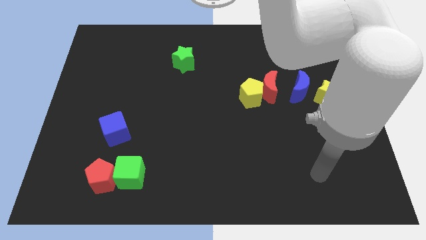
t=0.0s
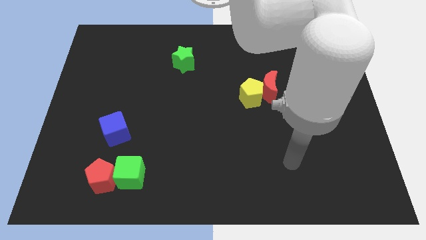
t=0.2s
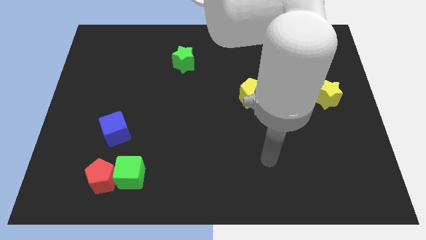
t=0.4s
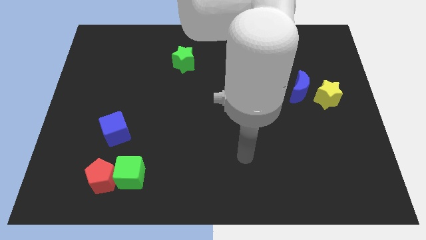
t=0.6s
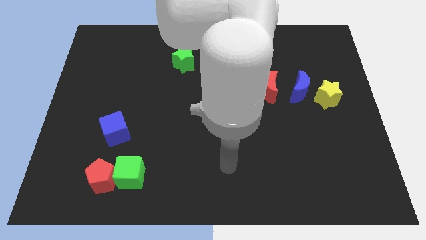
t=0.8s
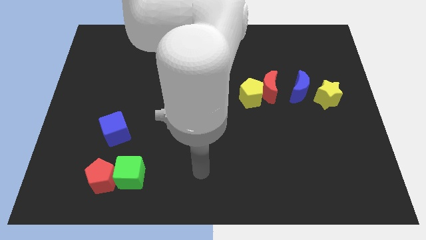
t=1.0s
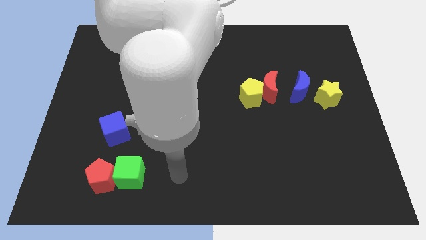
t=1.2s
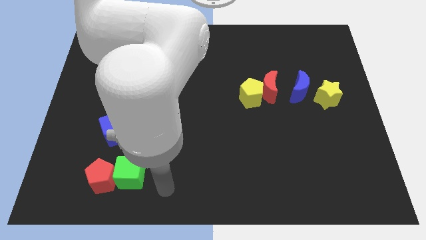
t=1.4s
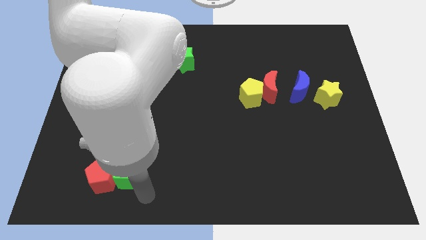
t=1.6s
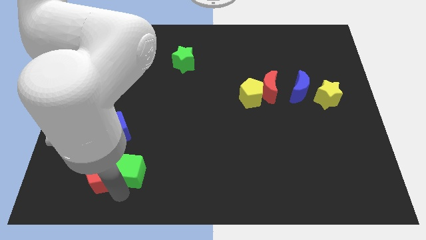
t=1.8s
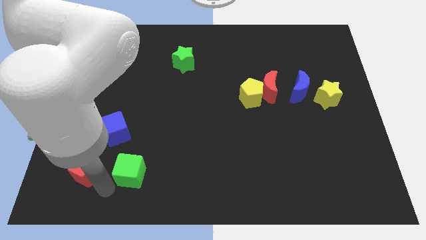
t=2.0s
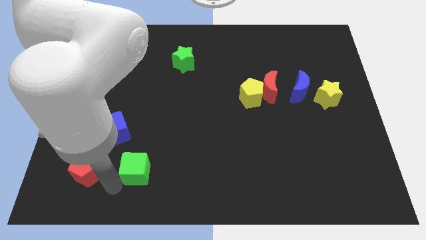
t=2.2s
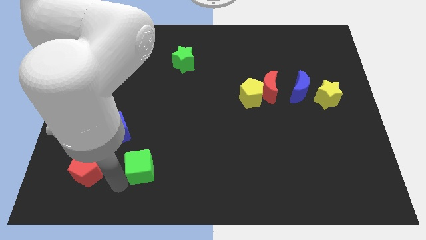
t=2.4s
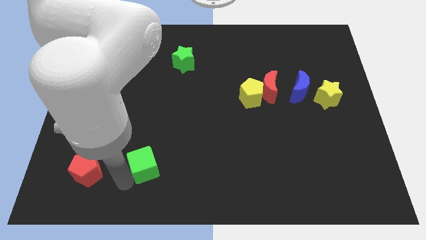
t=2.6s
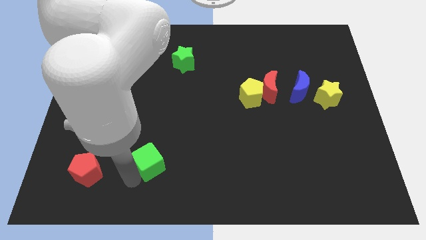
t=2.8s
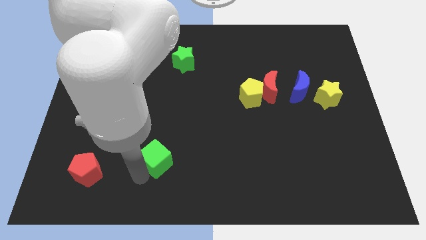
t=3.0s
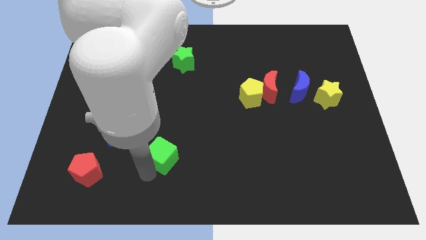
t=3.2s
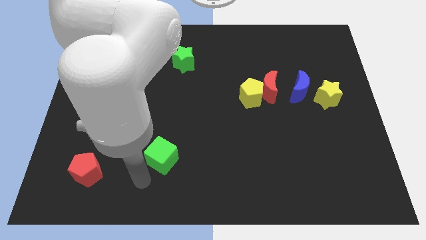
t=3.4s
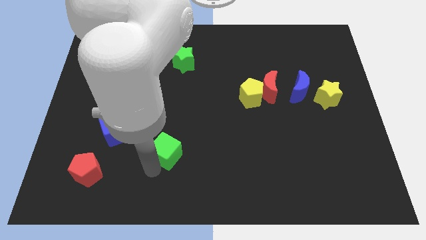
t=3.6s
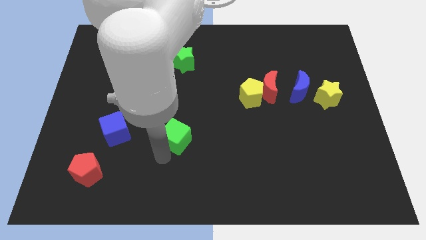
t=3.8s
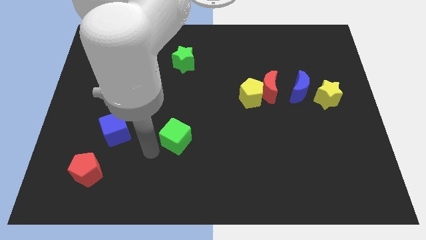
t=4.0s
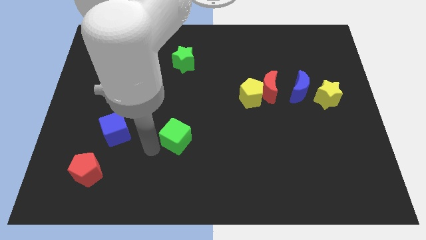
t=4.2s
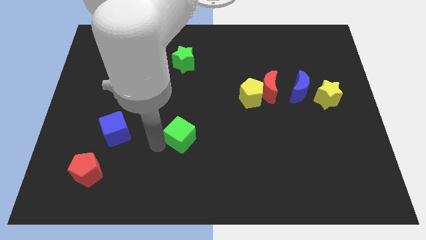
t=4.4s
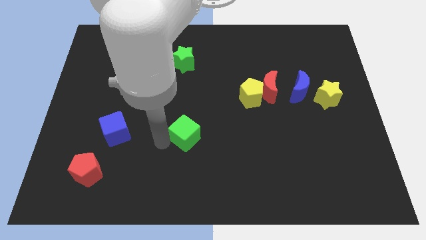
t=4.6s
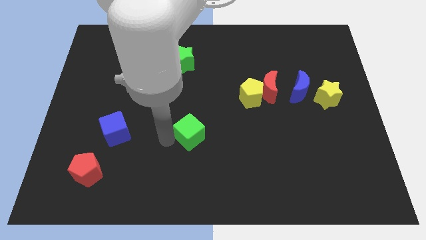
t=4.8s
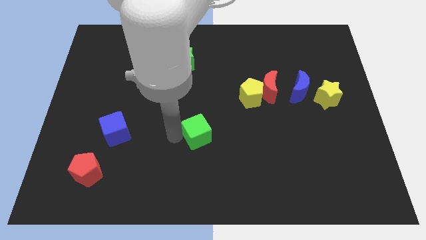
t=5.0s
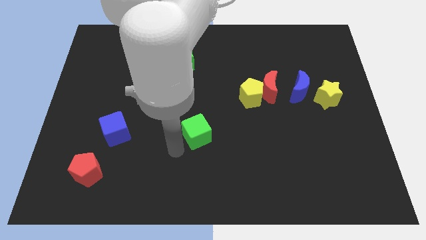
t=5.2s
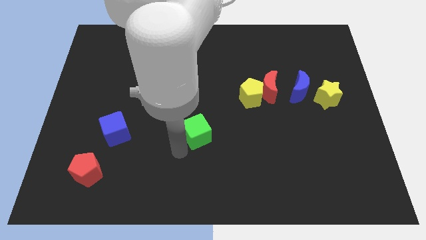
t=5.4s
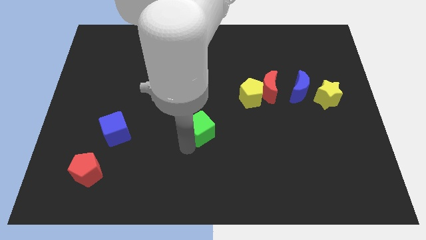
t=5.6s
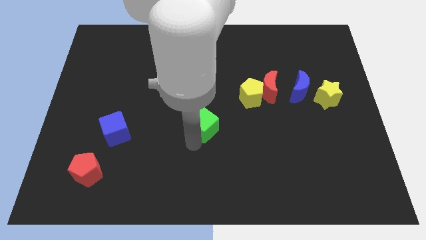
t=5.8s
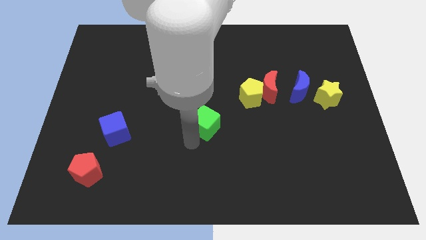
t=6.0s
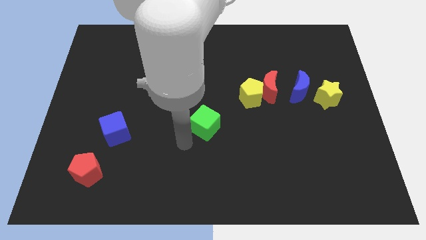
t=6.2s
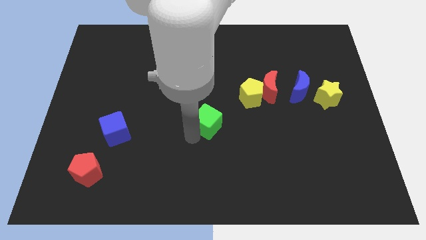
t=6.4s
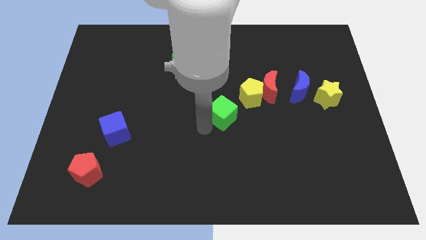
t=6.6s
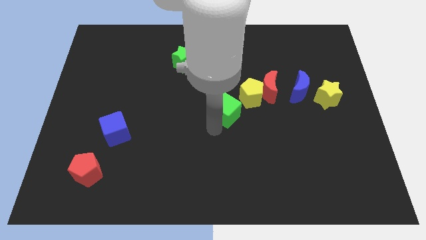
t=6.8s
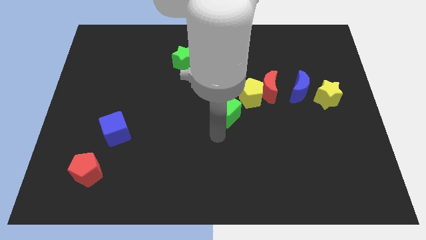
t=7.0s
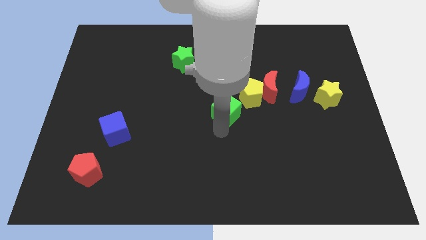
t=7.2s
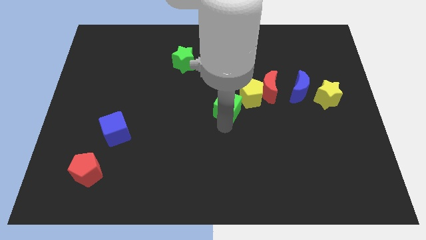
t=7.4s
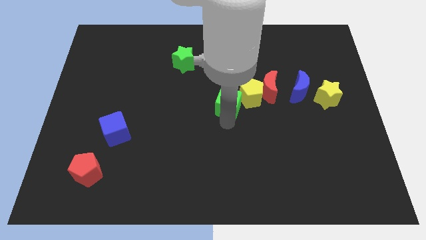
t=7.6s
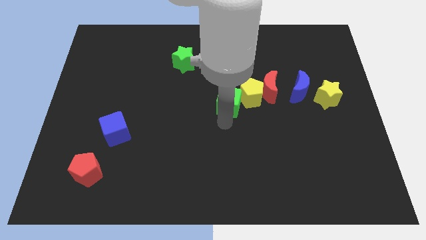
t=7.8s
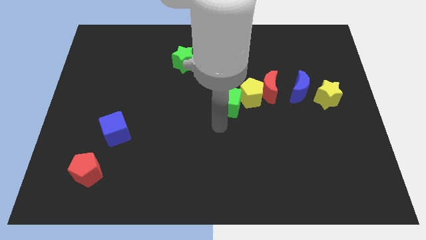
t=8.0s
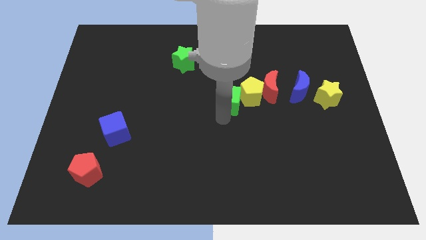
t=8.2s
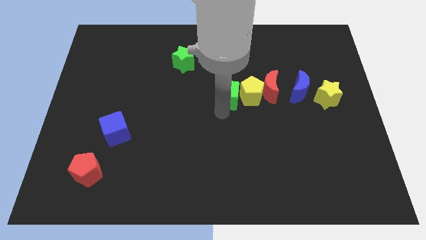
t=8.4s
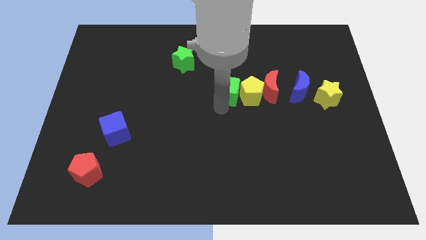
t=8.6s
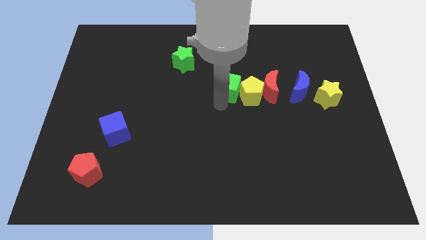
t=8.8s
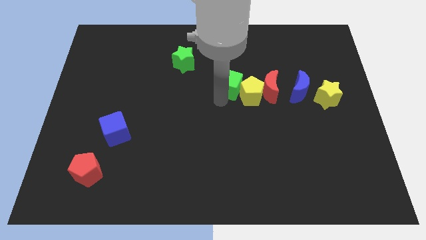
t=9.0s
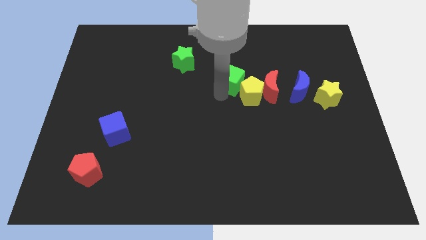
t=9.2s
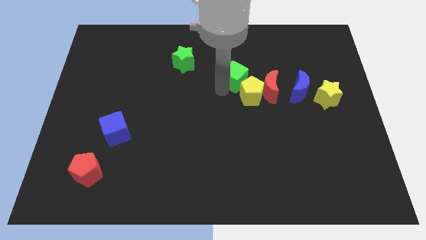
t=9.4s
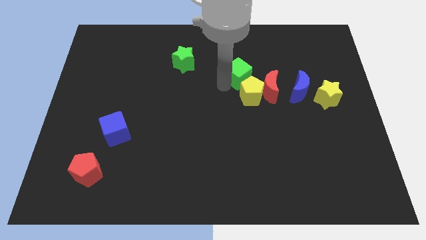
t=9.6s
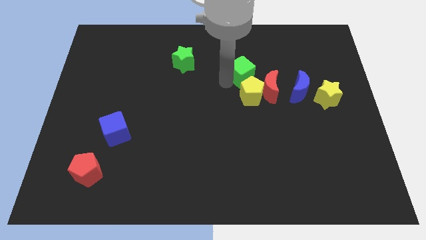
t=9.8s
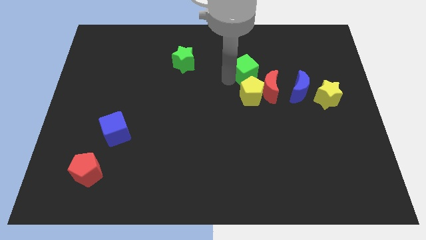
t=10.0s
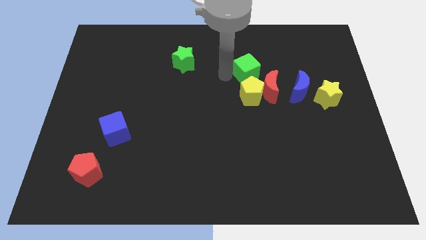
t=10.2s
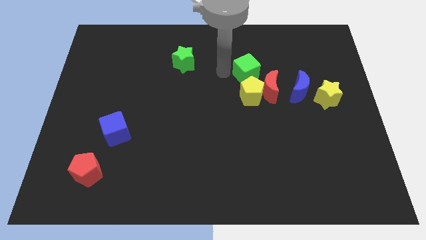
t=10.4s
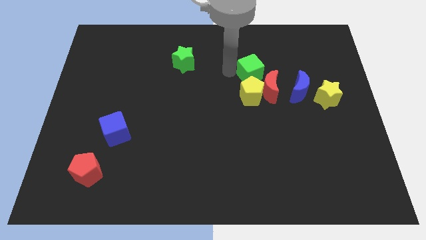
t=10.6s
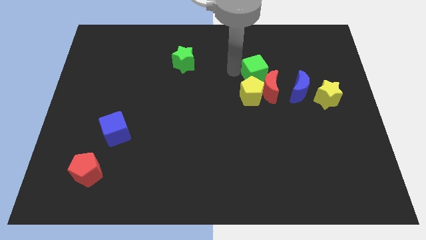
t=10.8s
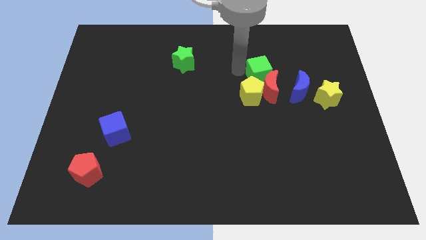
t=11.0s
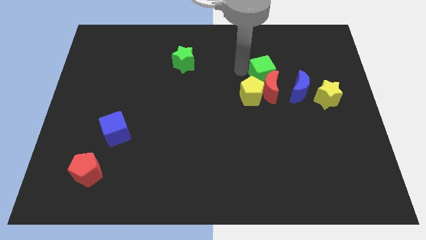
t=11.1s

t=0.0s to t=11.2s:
put the green cube diagonally up and to the right of the red moon

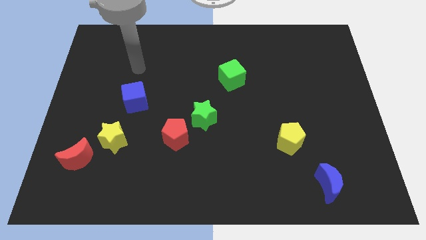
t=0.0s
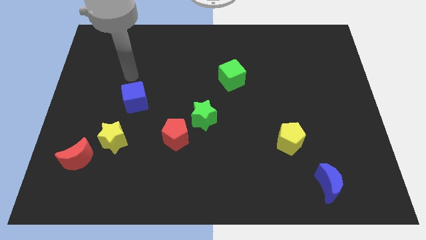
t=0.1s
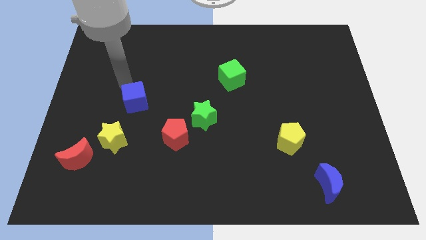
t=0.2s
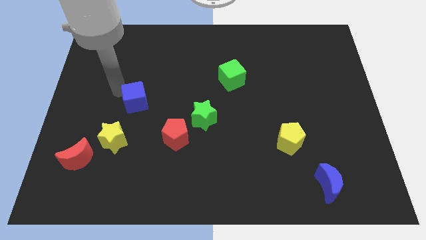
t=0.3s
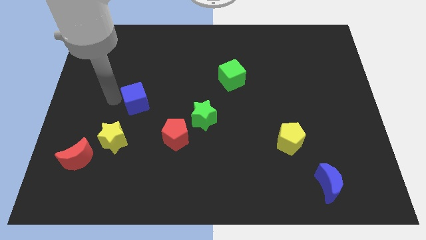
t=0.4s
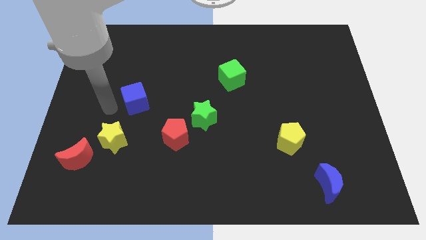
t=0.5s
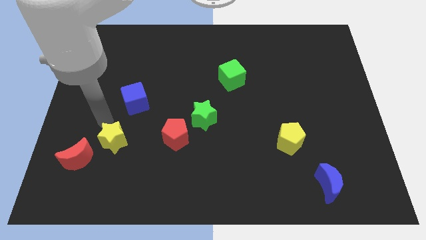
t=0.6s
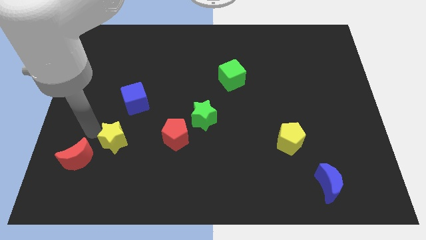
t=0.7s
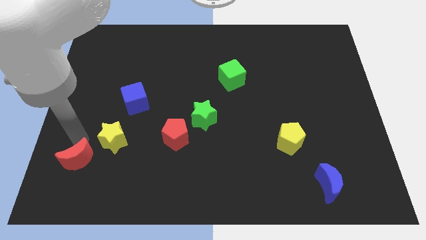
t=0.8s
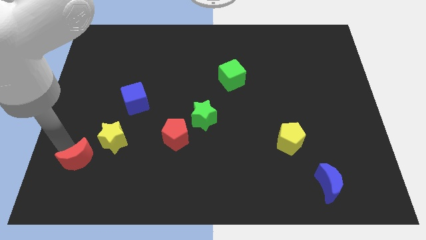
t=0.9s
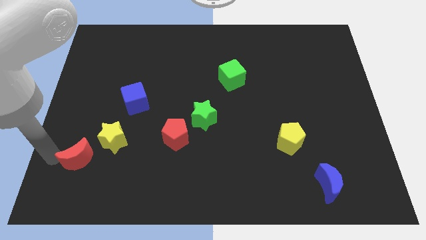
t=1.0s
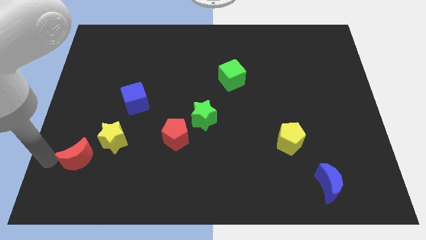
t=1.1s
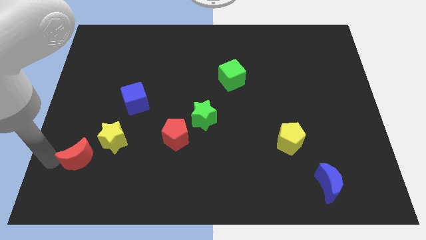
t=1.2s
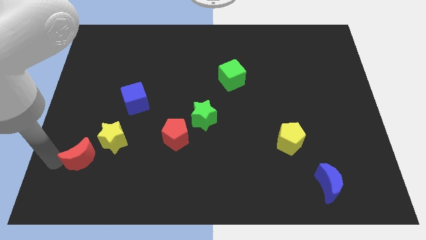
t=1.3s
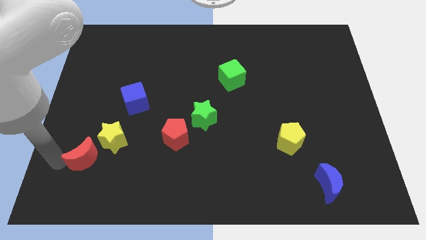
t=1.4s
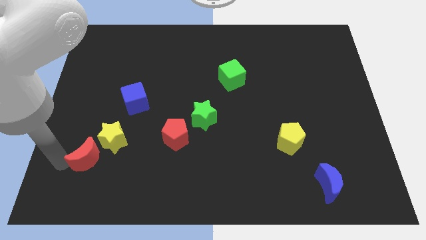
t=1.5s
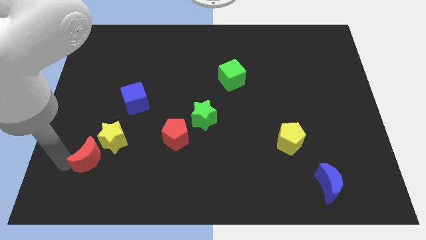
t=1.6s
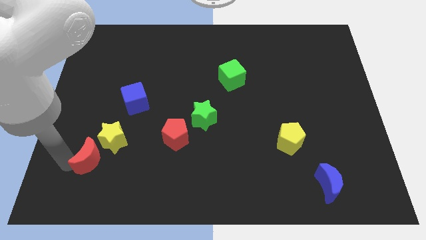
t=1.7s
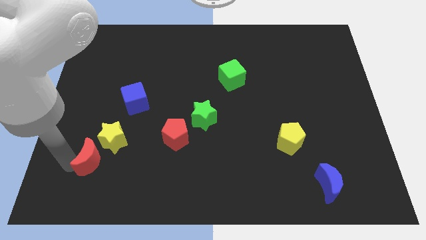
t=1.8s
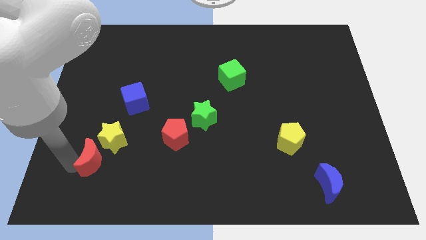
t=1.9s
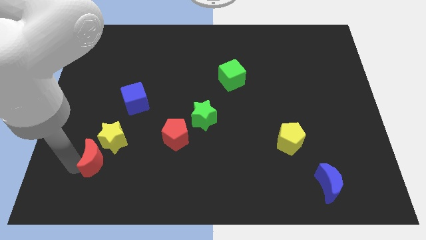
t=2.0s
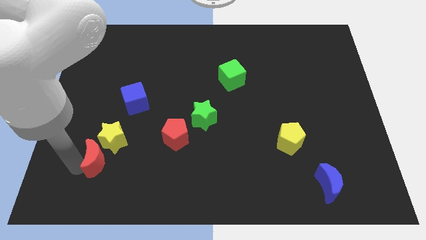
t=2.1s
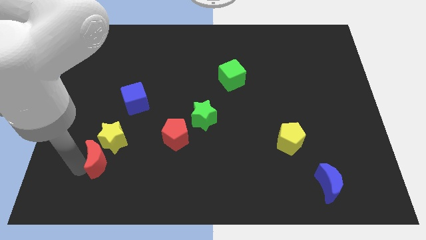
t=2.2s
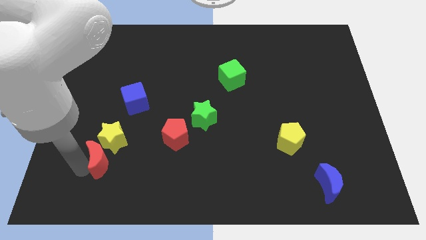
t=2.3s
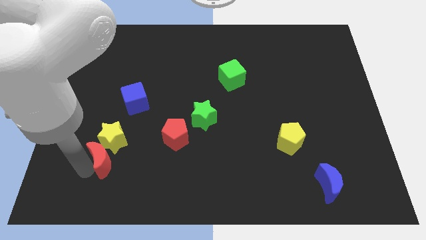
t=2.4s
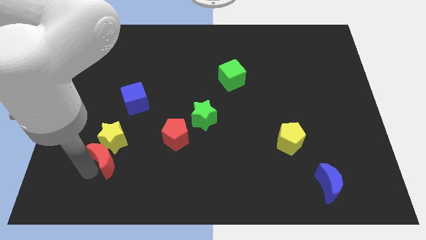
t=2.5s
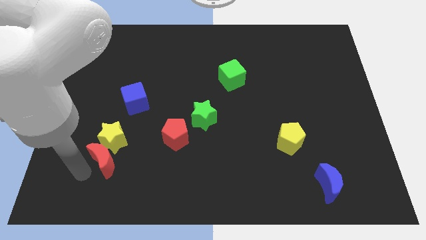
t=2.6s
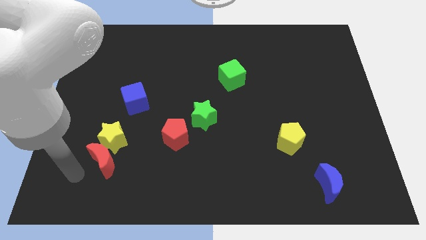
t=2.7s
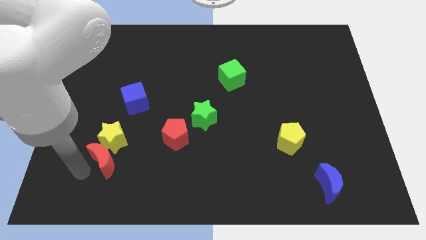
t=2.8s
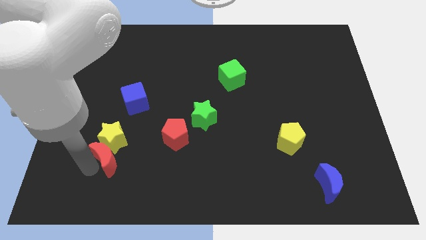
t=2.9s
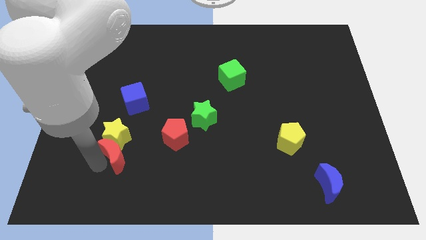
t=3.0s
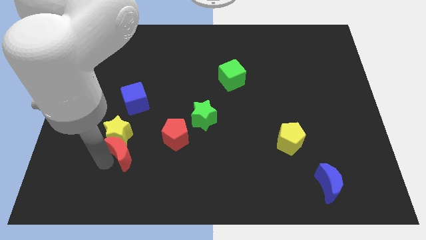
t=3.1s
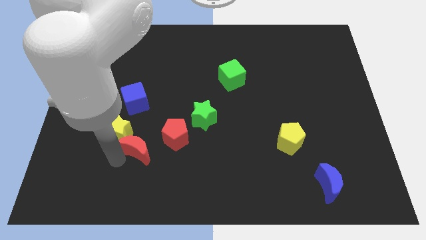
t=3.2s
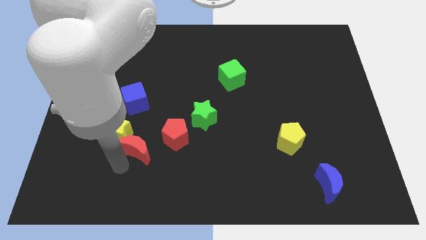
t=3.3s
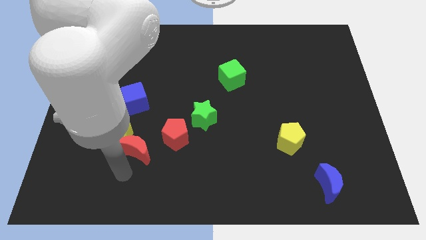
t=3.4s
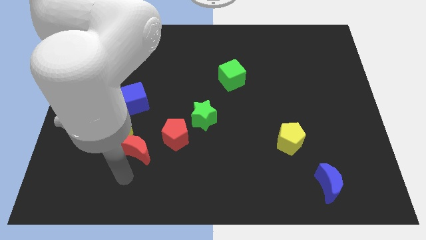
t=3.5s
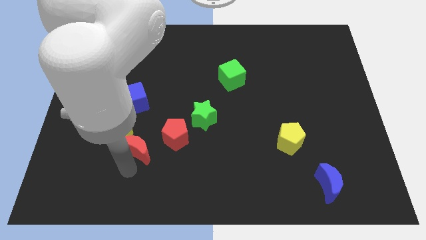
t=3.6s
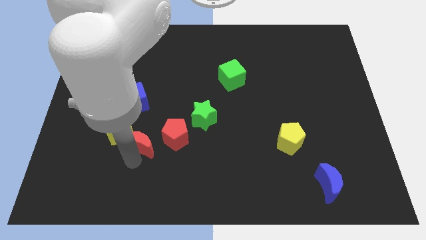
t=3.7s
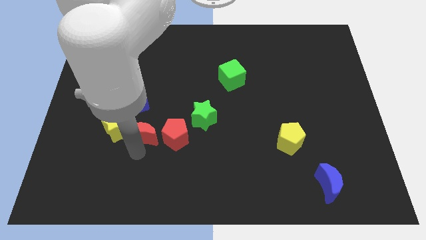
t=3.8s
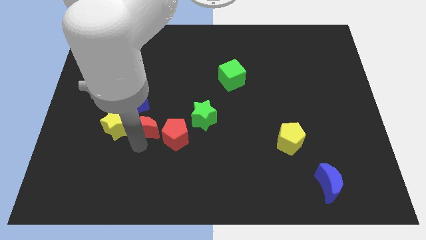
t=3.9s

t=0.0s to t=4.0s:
push the red moon to the top left of the red pentagon
